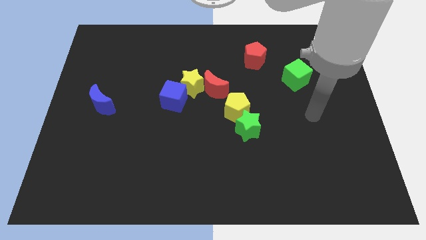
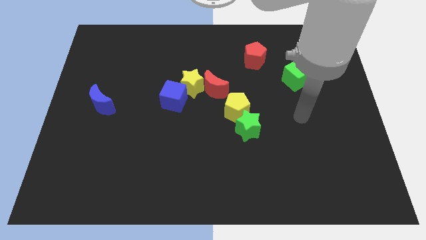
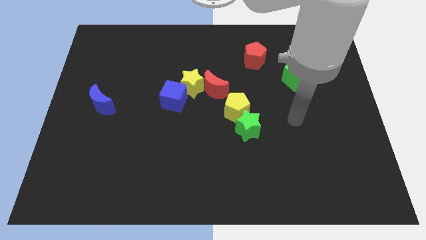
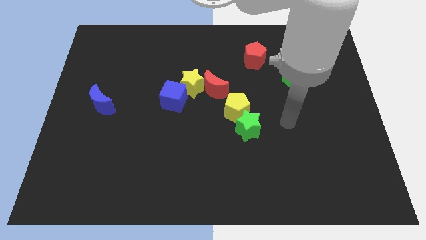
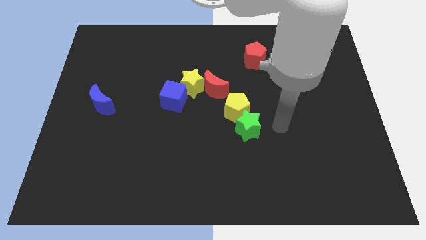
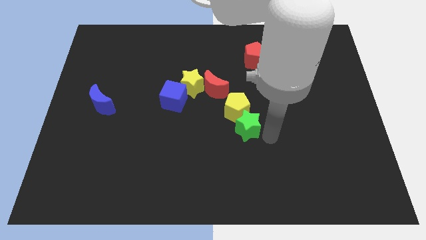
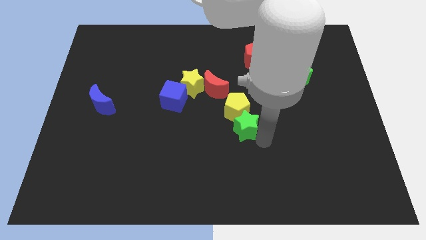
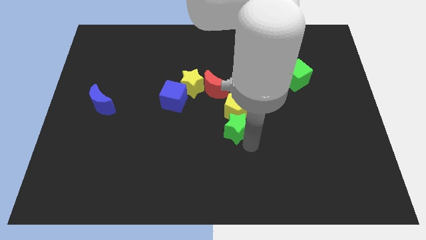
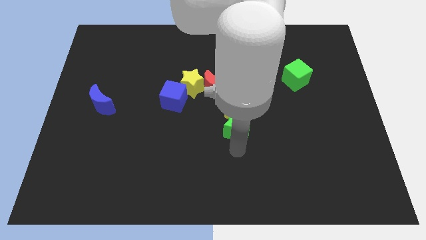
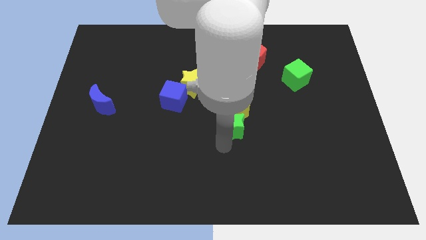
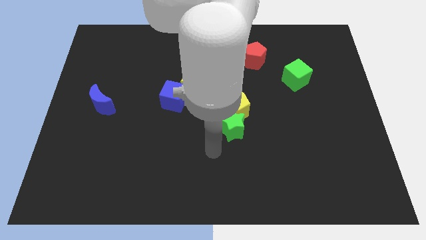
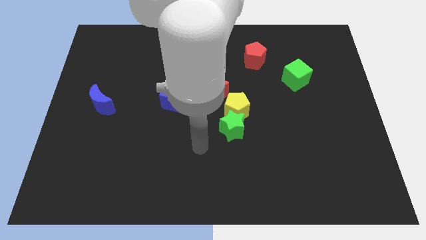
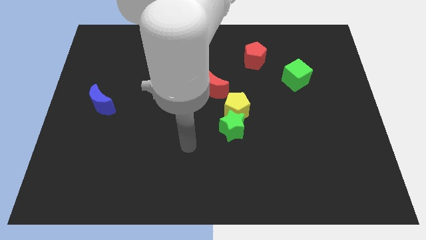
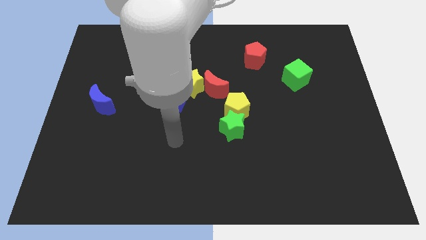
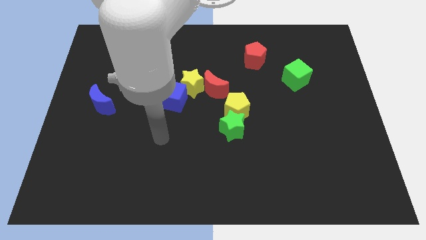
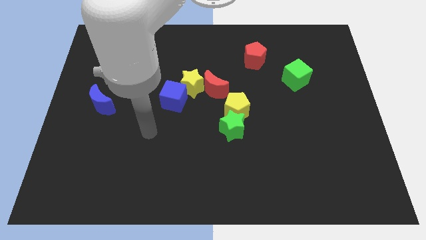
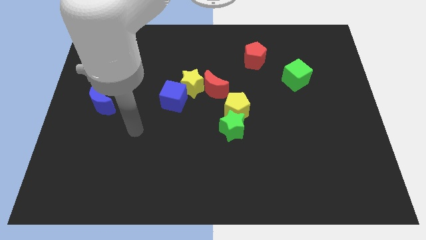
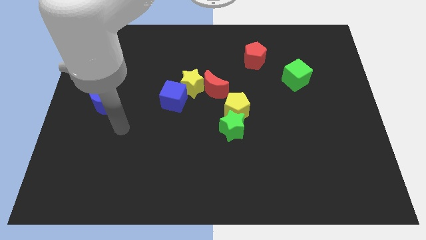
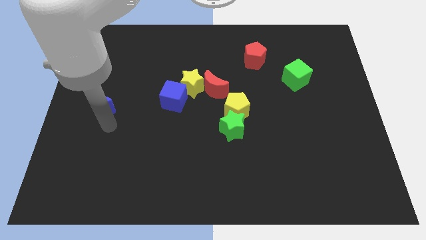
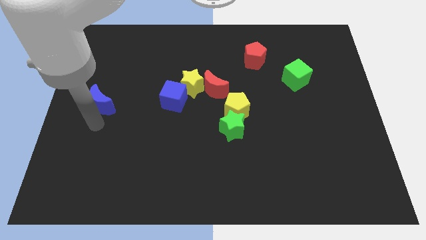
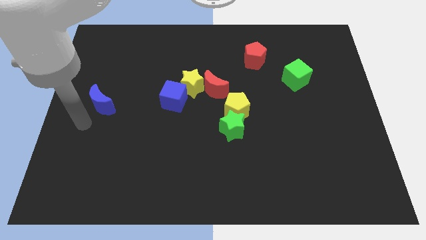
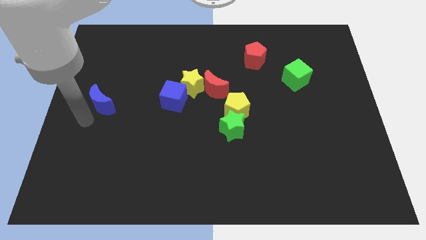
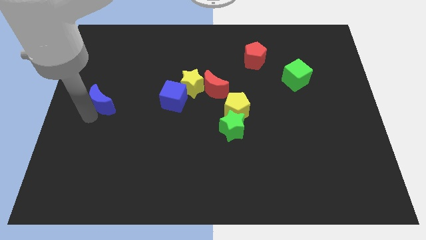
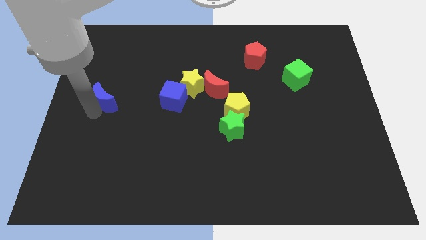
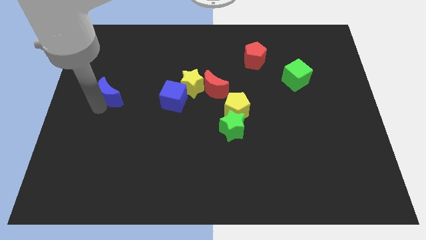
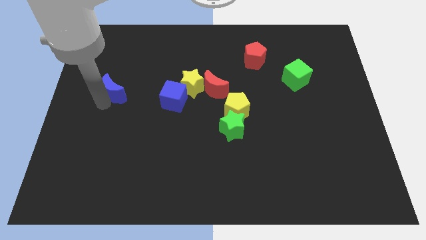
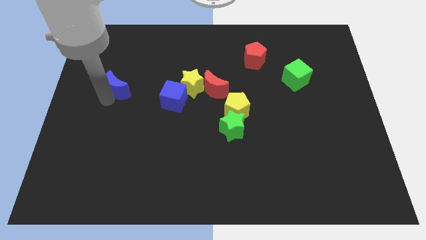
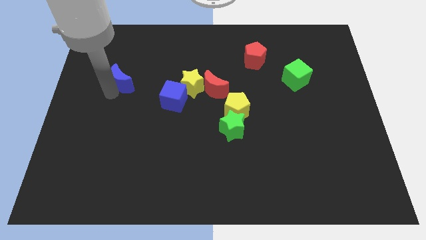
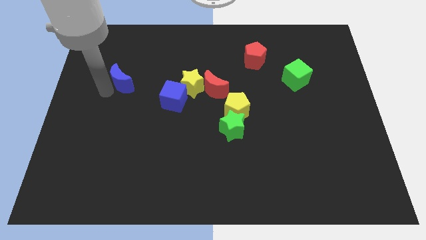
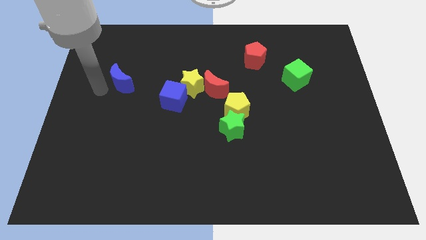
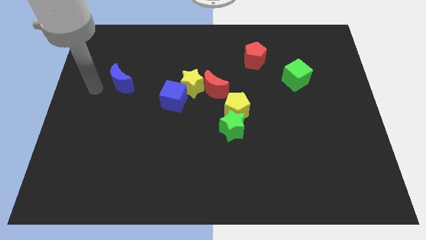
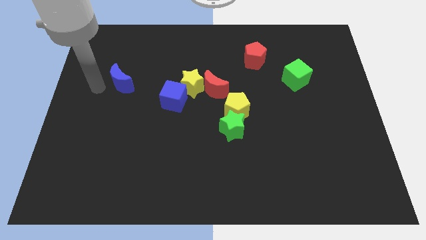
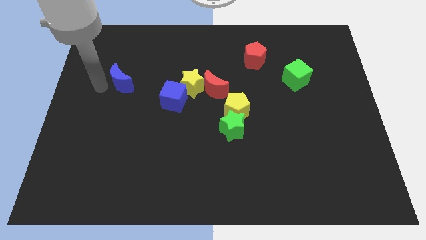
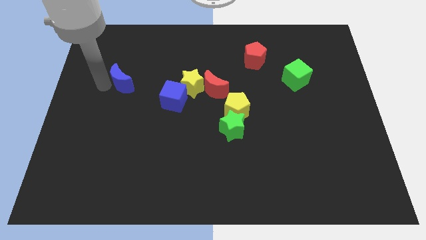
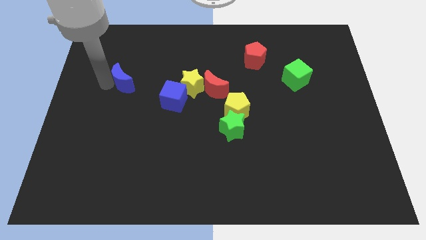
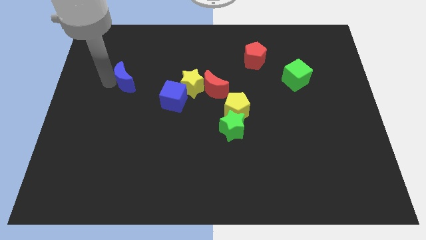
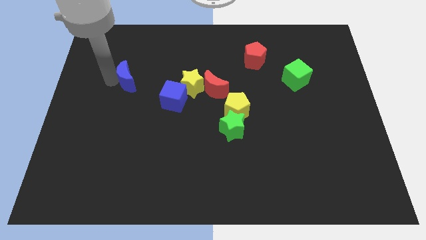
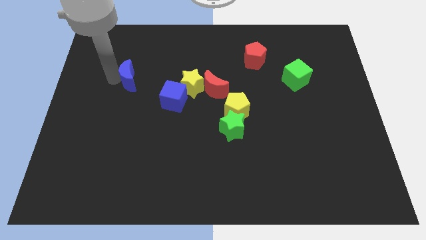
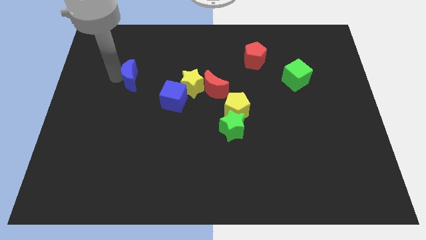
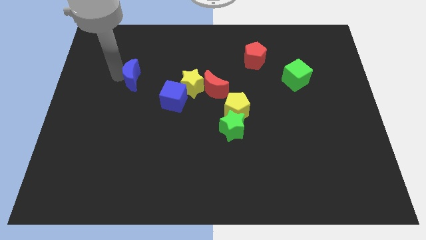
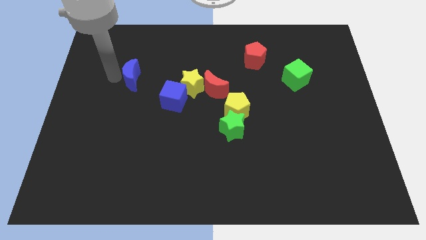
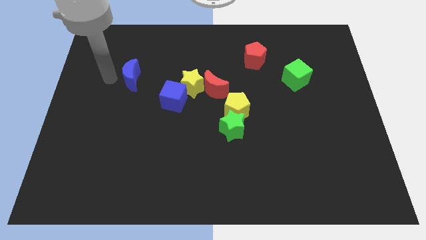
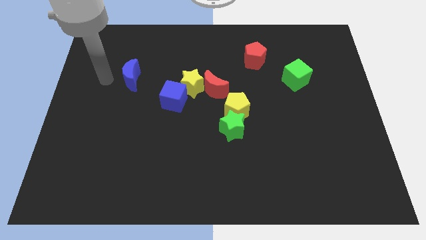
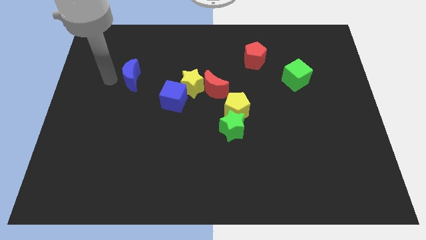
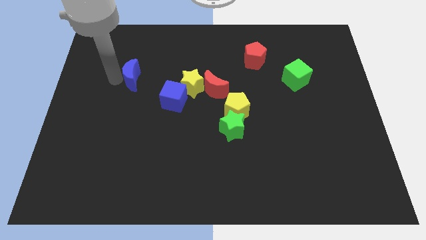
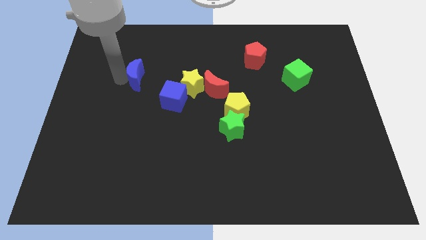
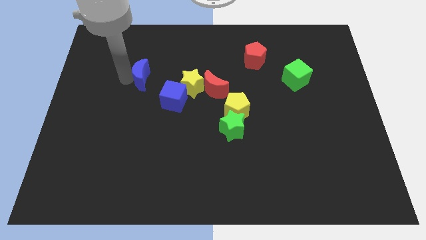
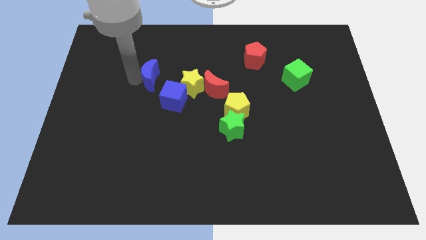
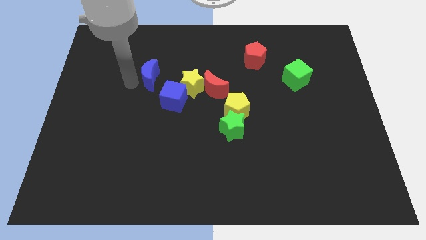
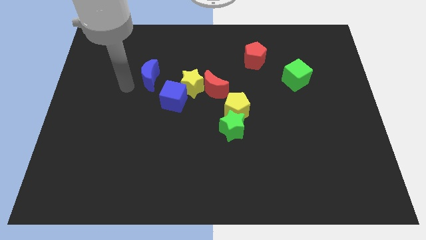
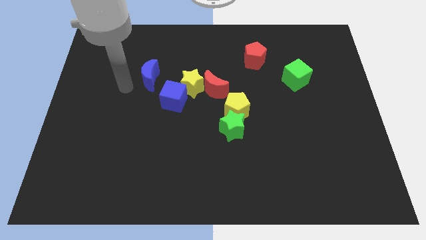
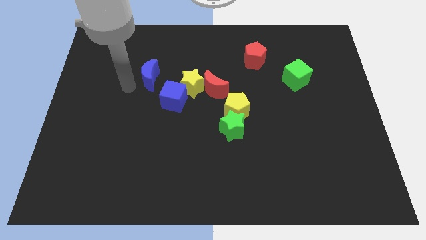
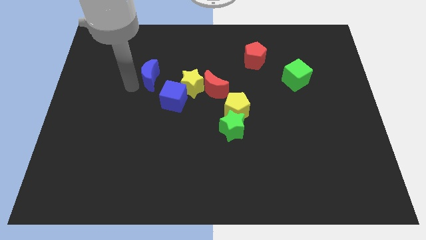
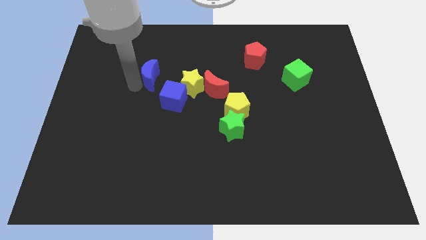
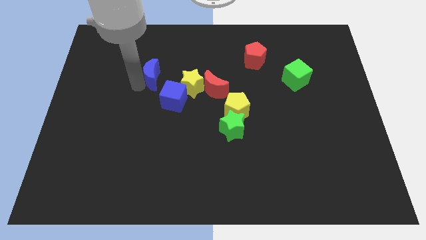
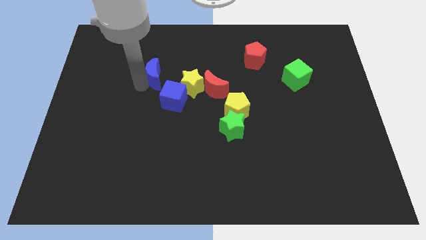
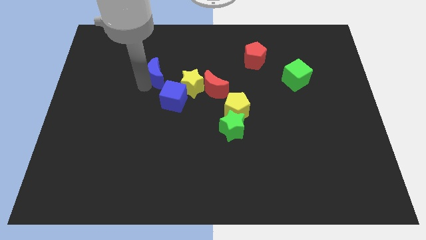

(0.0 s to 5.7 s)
slide the blue moon to the top side of the blue cube

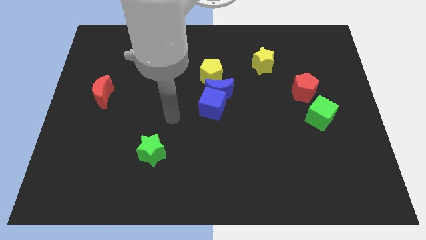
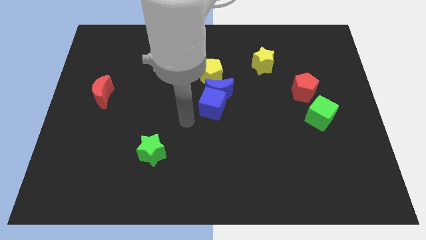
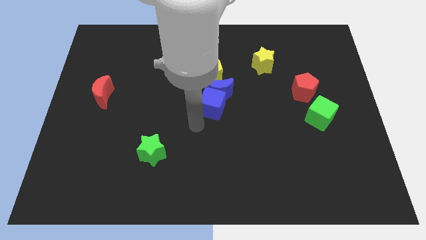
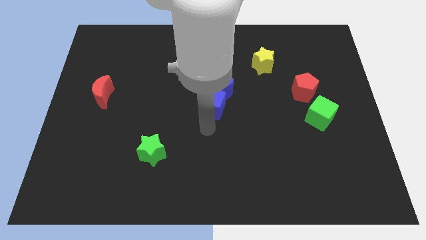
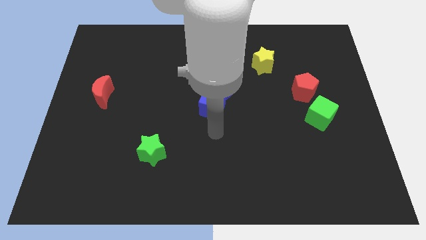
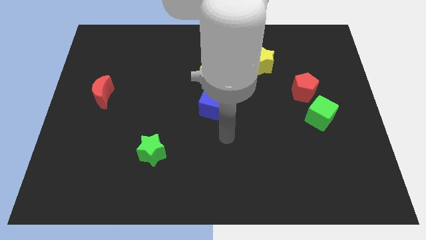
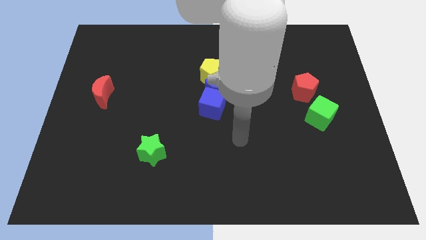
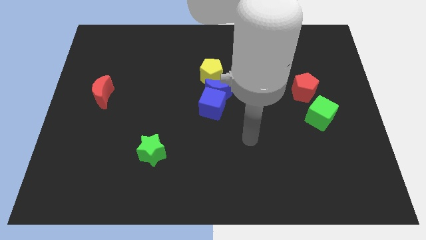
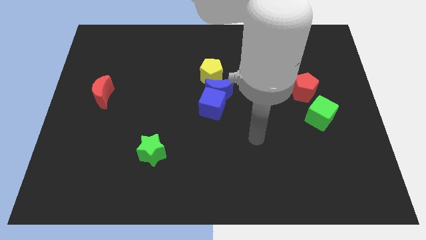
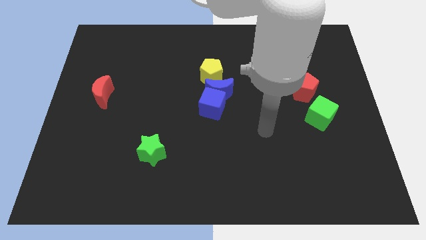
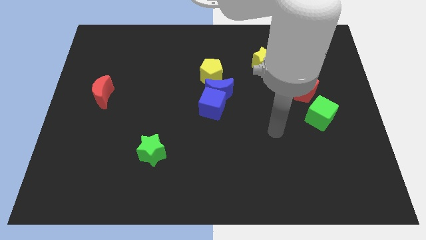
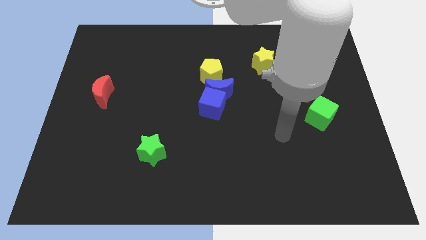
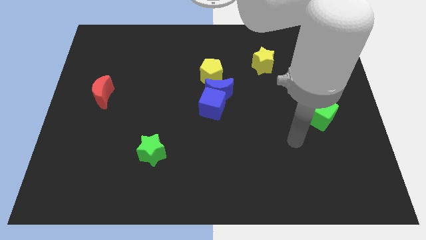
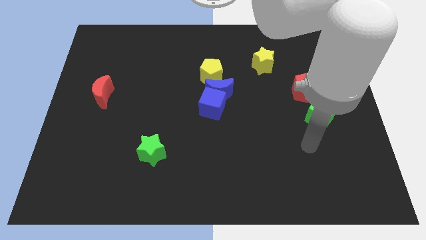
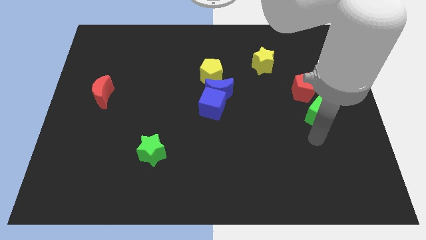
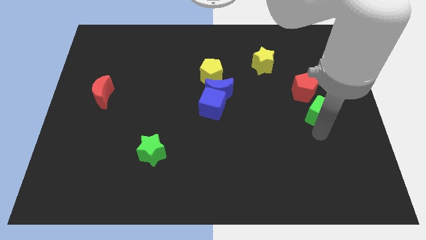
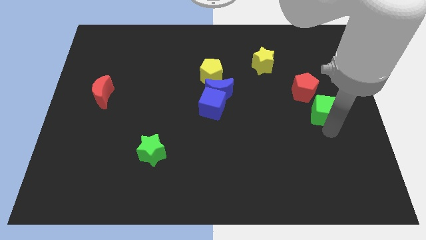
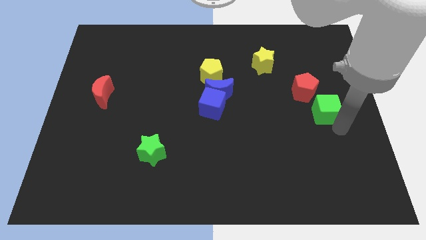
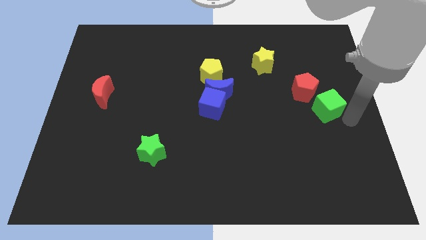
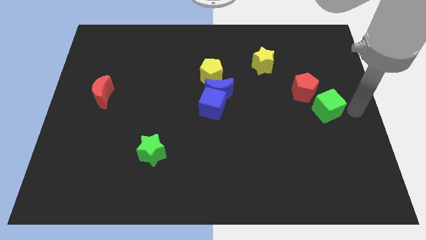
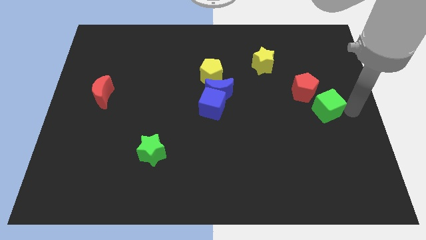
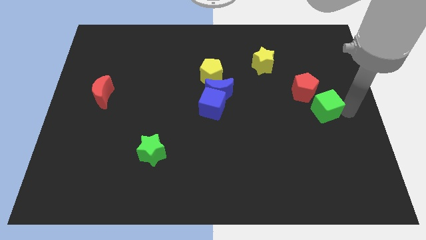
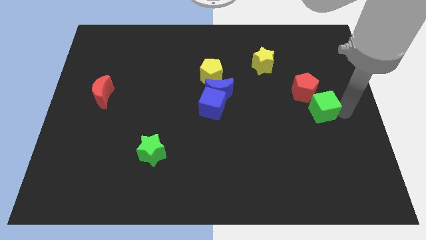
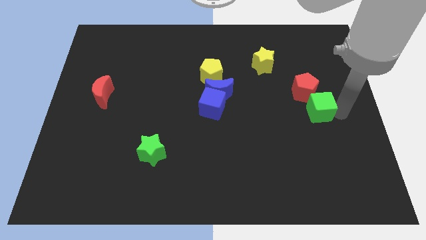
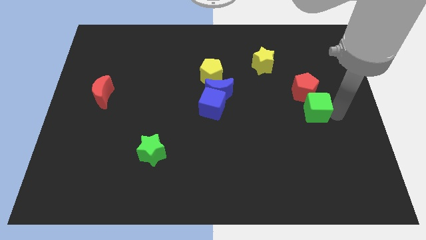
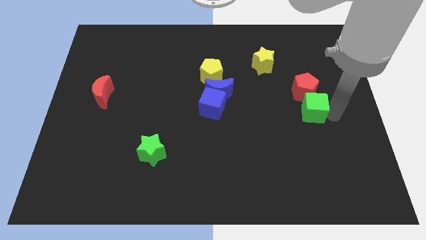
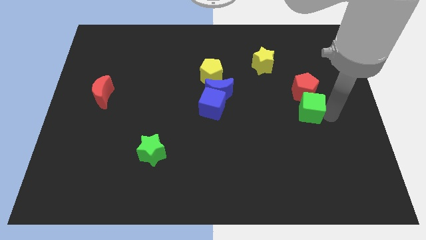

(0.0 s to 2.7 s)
move the green cube diagonally down and to the left of the red pentagon
